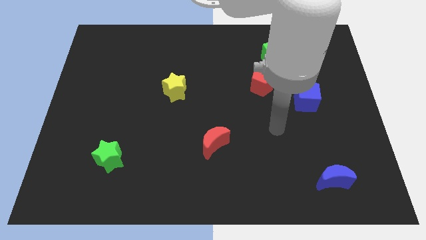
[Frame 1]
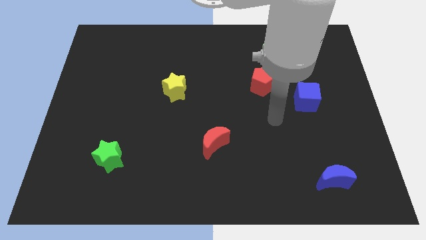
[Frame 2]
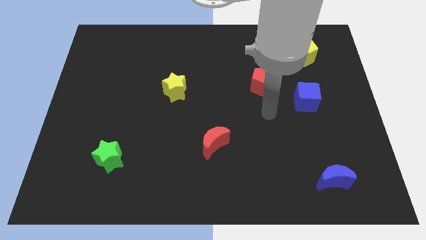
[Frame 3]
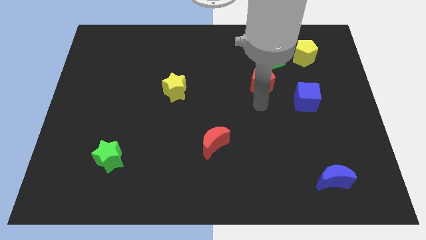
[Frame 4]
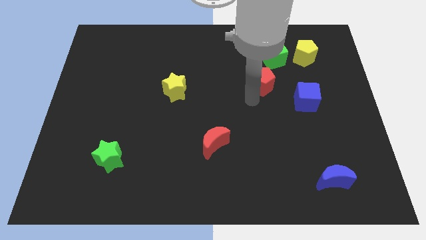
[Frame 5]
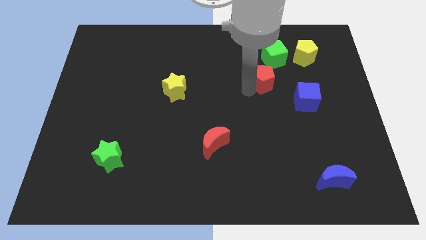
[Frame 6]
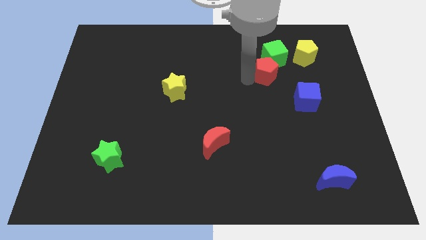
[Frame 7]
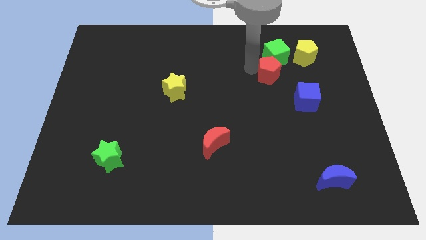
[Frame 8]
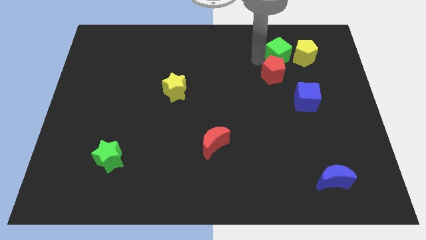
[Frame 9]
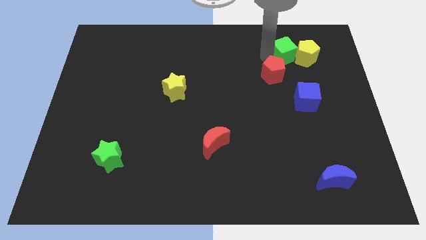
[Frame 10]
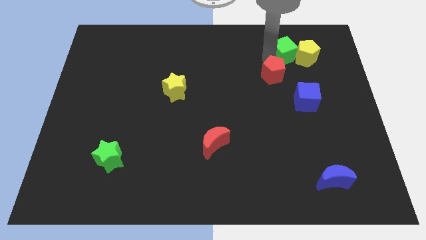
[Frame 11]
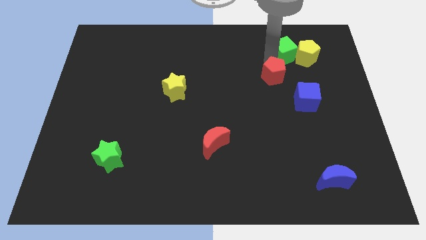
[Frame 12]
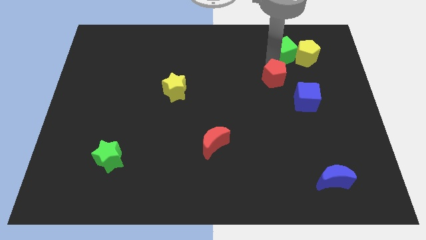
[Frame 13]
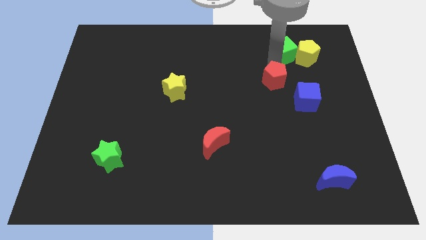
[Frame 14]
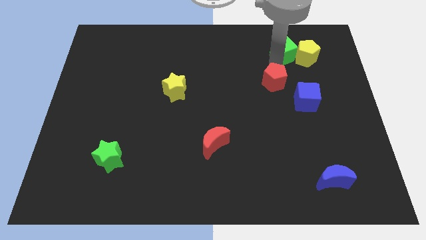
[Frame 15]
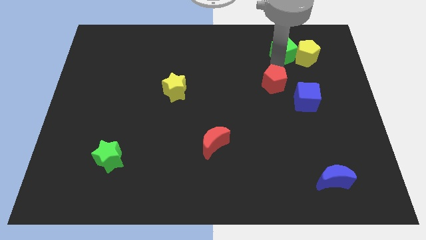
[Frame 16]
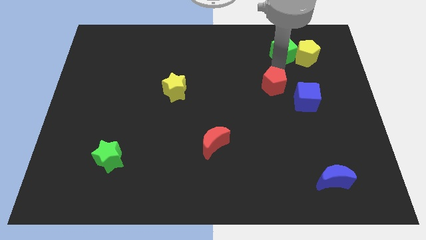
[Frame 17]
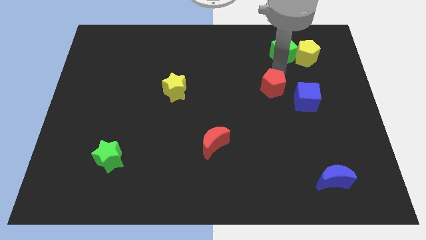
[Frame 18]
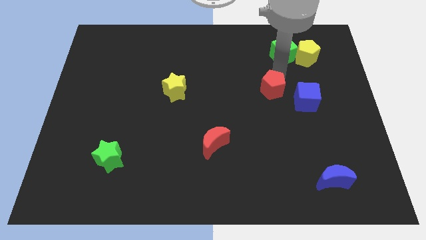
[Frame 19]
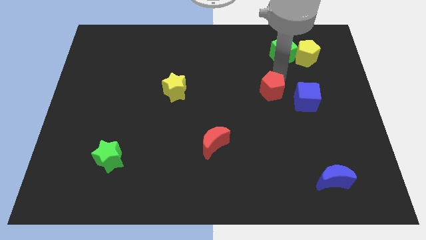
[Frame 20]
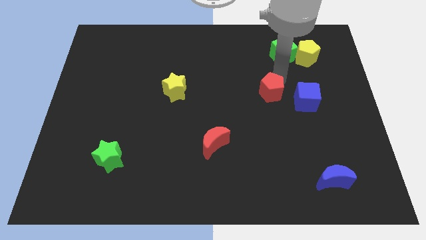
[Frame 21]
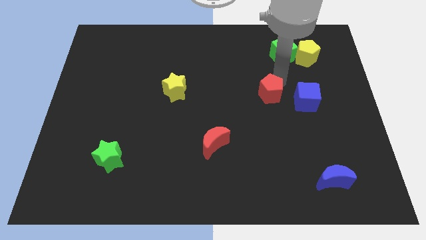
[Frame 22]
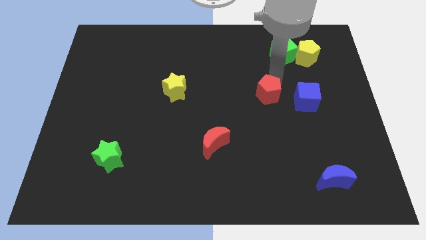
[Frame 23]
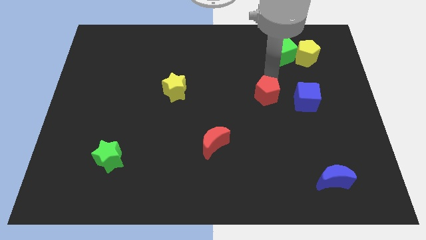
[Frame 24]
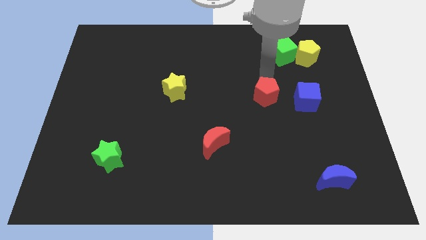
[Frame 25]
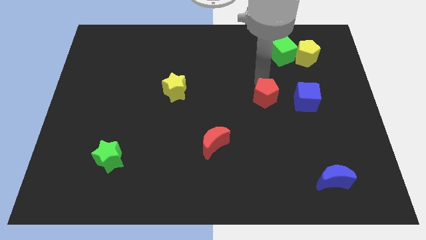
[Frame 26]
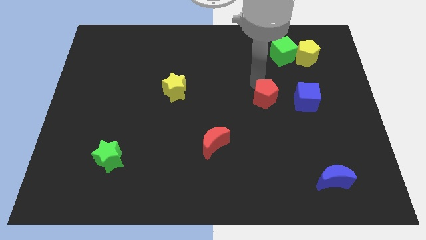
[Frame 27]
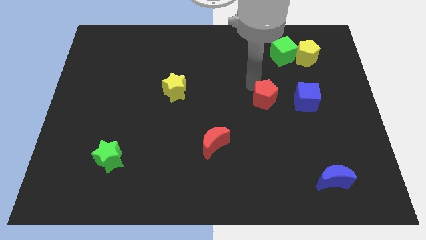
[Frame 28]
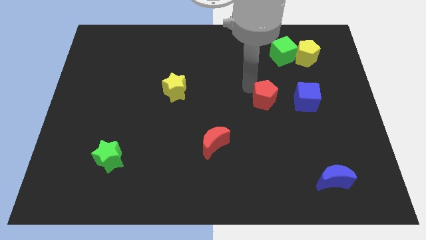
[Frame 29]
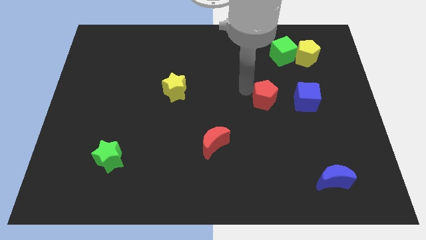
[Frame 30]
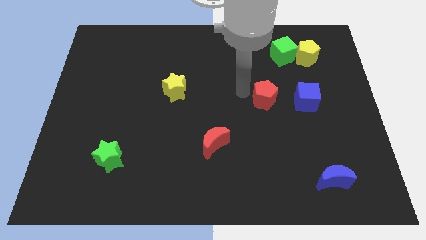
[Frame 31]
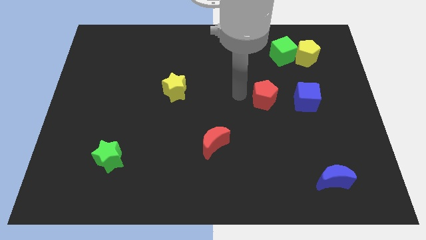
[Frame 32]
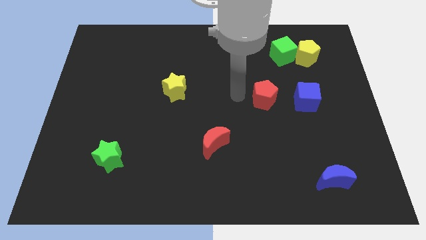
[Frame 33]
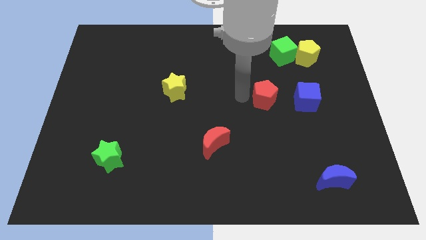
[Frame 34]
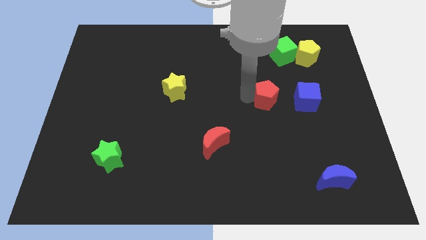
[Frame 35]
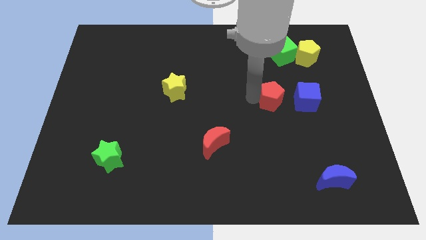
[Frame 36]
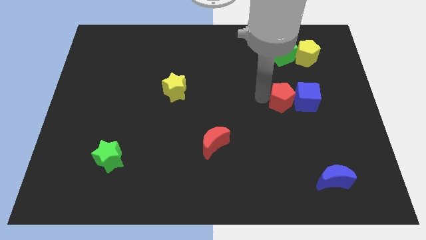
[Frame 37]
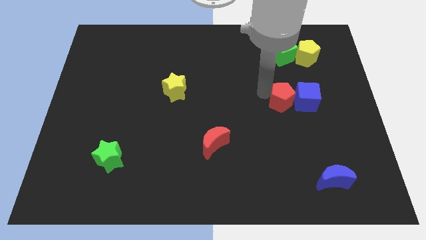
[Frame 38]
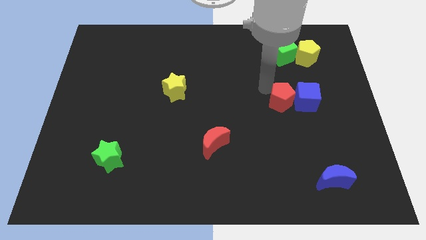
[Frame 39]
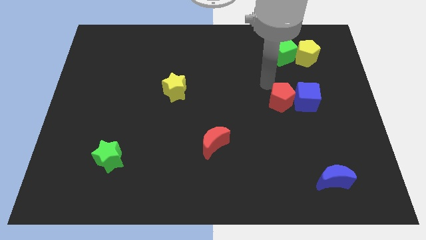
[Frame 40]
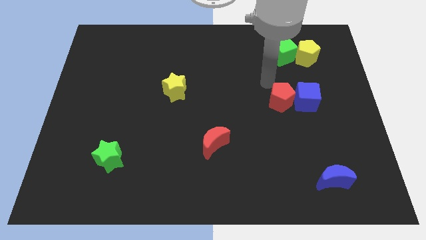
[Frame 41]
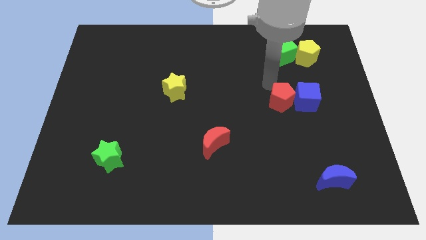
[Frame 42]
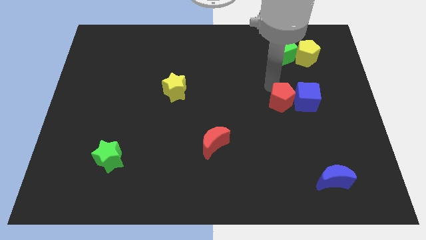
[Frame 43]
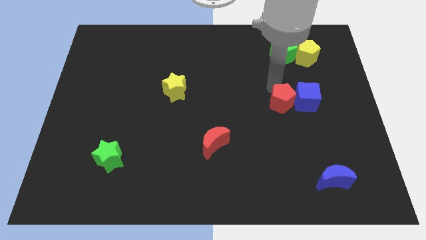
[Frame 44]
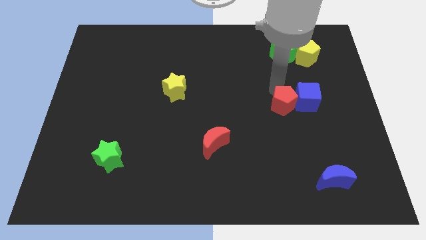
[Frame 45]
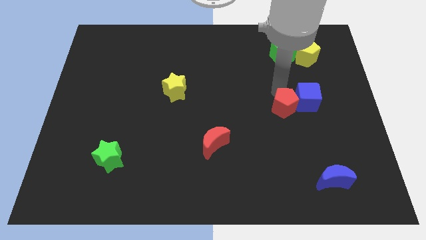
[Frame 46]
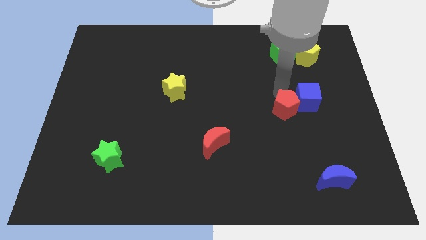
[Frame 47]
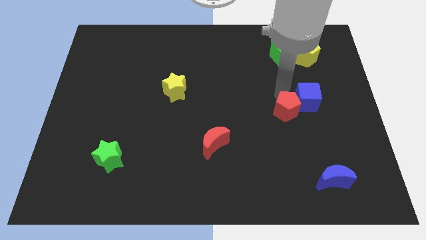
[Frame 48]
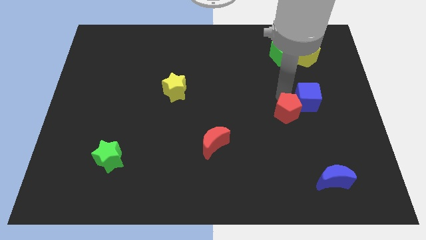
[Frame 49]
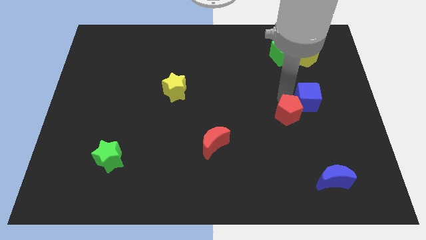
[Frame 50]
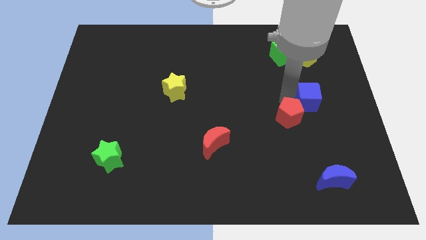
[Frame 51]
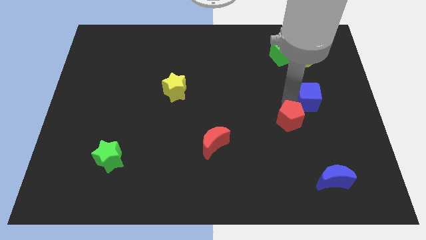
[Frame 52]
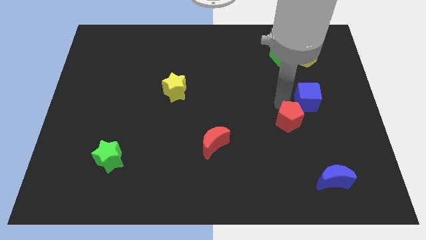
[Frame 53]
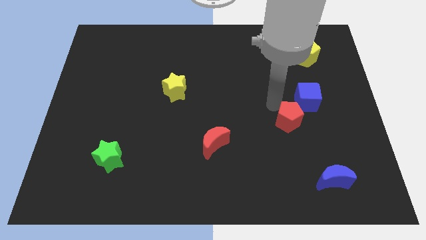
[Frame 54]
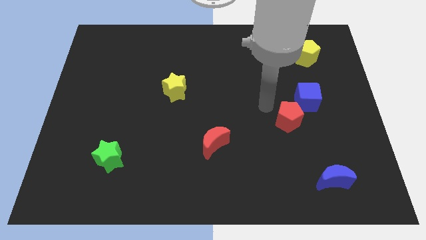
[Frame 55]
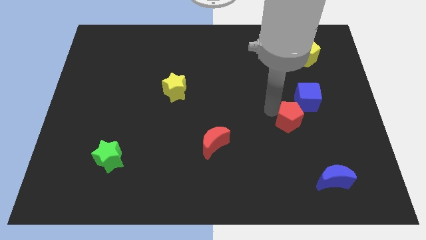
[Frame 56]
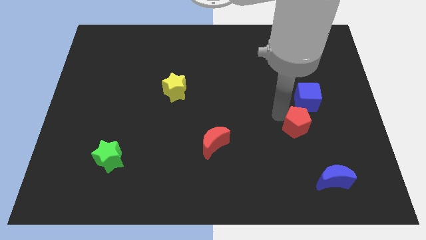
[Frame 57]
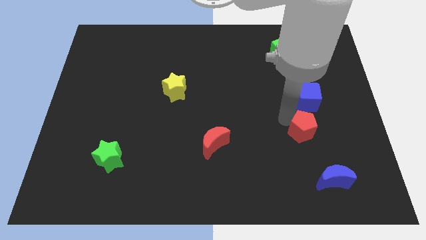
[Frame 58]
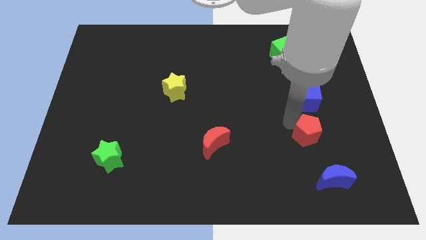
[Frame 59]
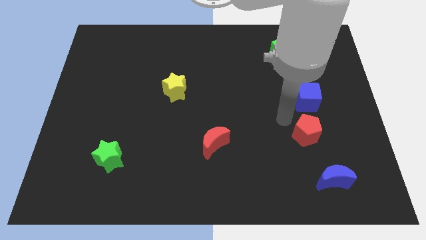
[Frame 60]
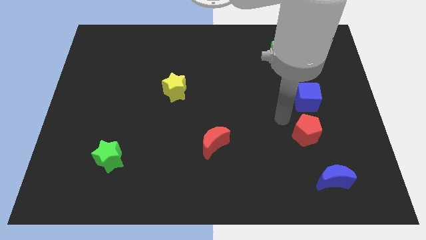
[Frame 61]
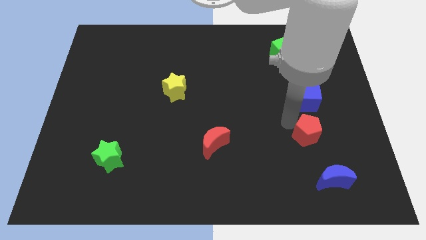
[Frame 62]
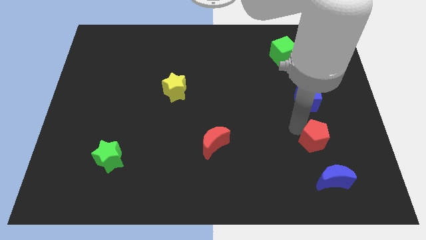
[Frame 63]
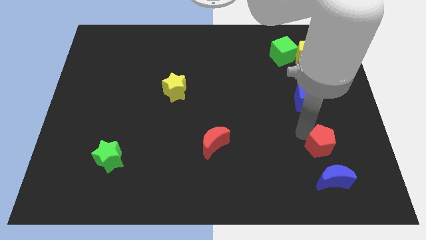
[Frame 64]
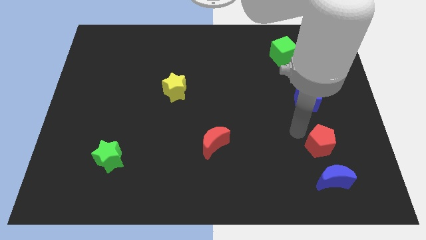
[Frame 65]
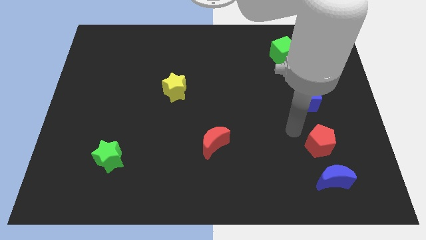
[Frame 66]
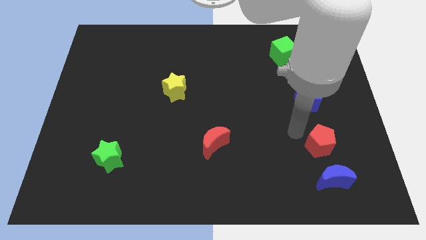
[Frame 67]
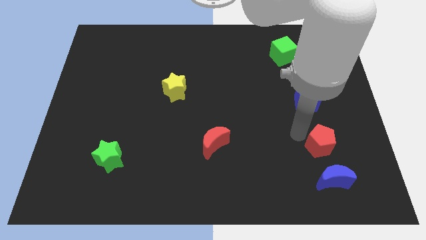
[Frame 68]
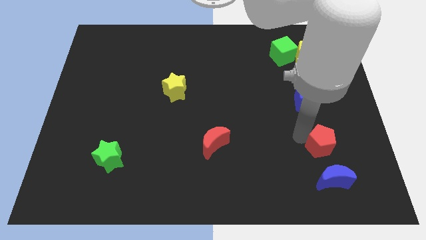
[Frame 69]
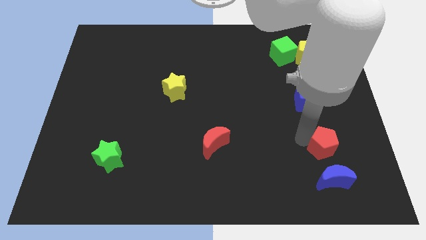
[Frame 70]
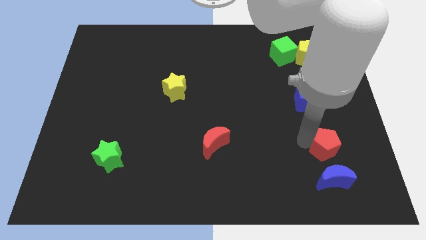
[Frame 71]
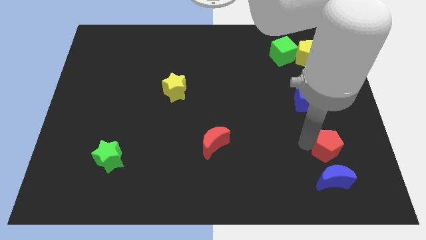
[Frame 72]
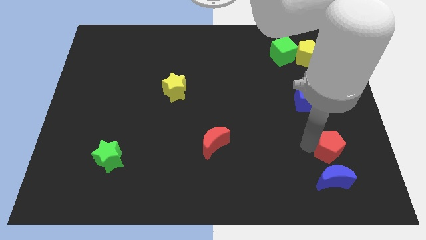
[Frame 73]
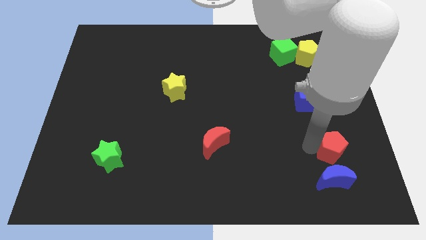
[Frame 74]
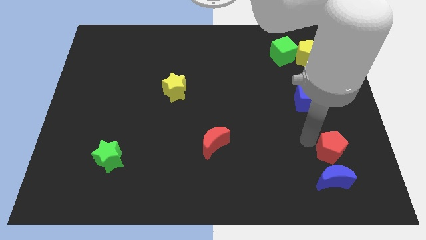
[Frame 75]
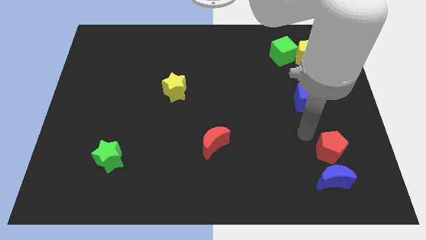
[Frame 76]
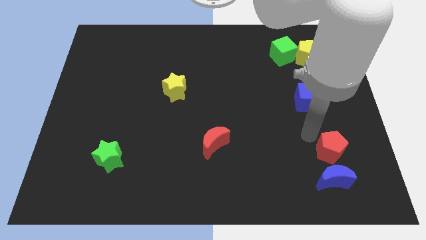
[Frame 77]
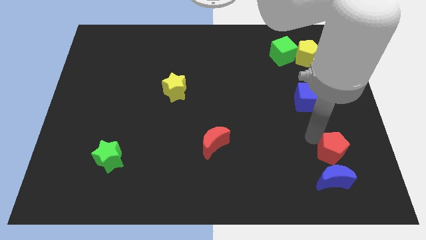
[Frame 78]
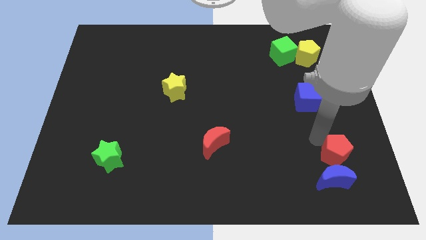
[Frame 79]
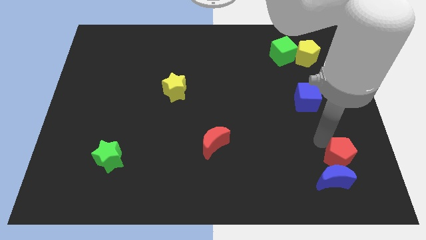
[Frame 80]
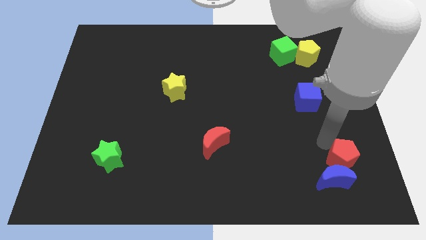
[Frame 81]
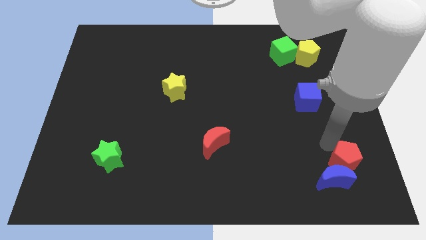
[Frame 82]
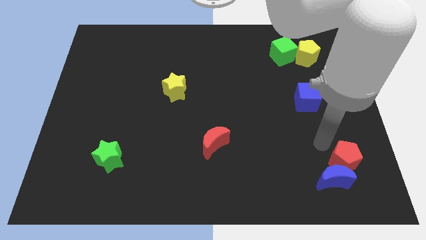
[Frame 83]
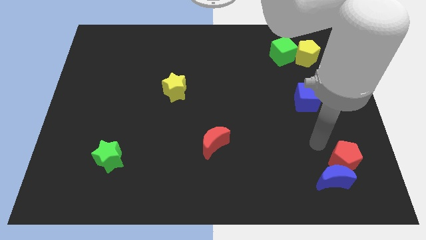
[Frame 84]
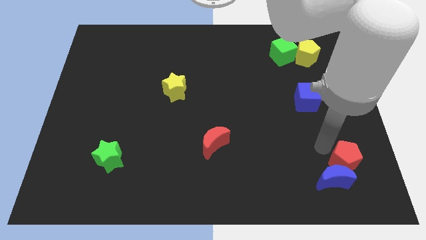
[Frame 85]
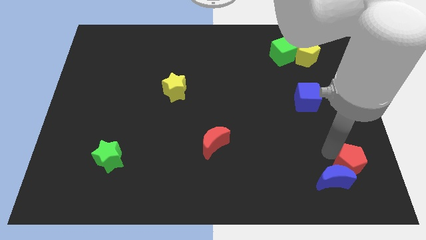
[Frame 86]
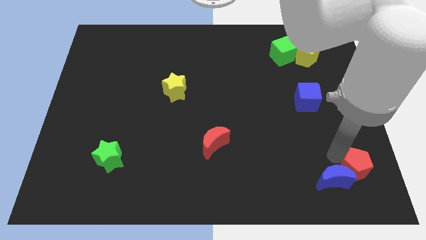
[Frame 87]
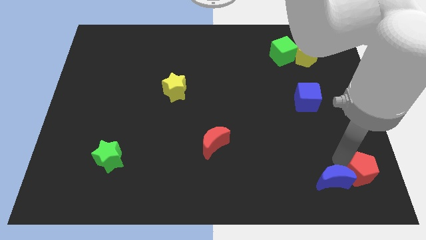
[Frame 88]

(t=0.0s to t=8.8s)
push the red pentagon to the bottom right of the board
